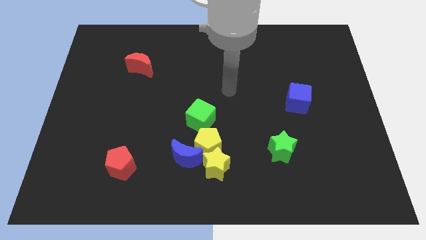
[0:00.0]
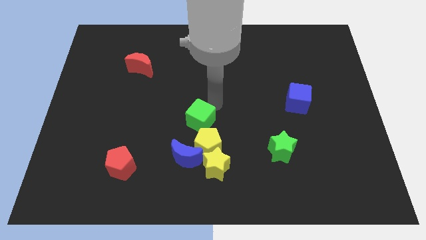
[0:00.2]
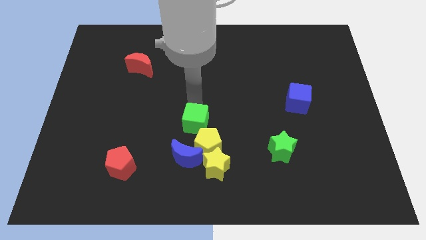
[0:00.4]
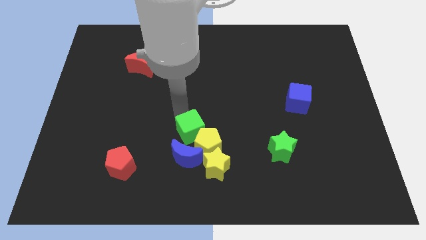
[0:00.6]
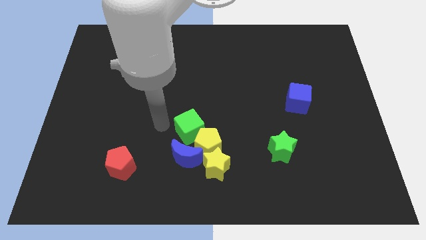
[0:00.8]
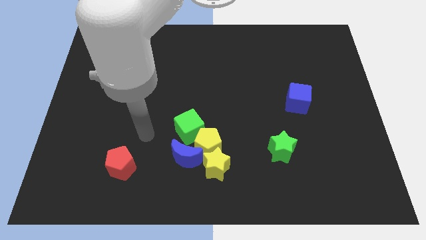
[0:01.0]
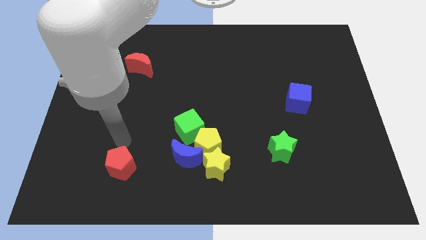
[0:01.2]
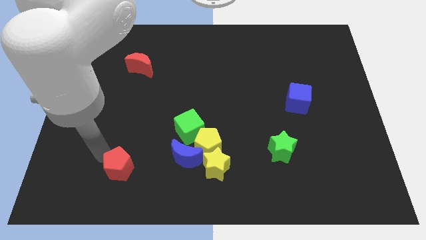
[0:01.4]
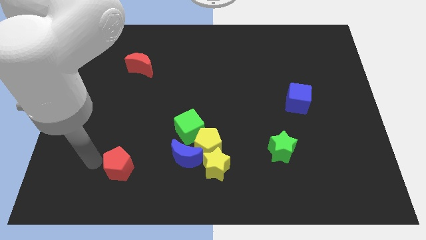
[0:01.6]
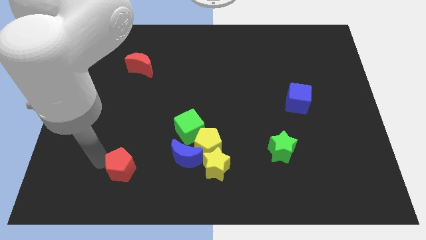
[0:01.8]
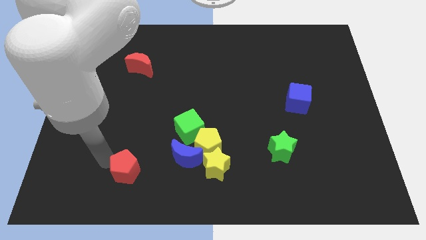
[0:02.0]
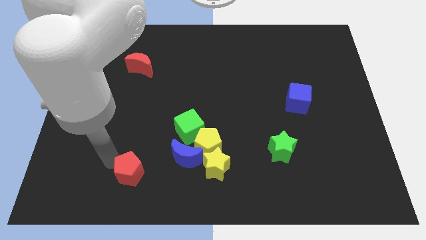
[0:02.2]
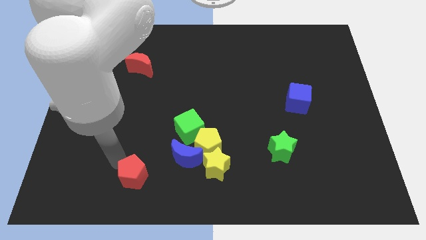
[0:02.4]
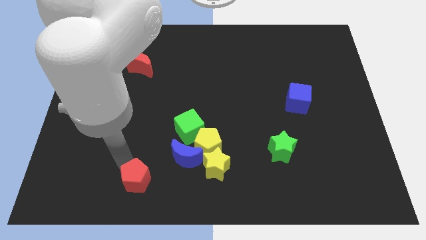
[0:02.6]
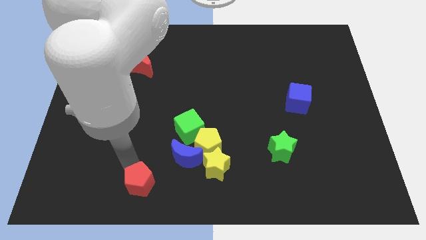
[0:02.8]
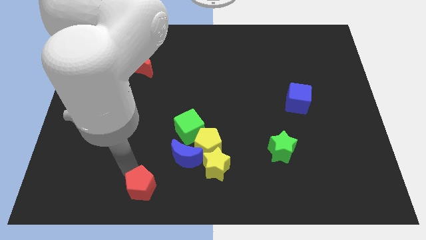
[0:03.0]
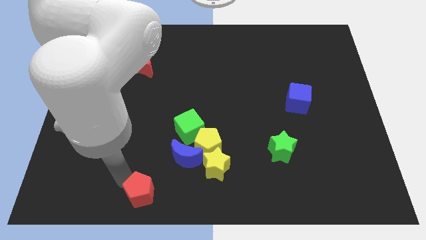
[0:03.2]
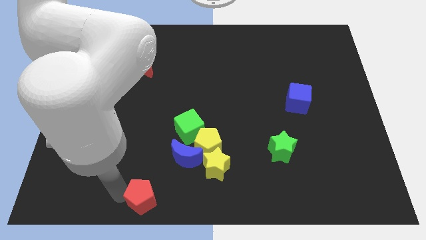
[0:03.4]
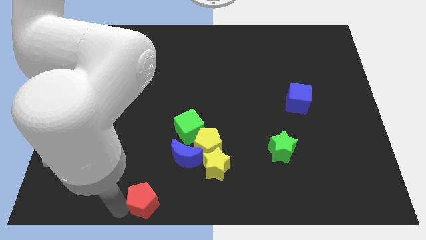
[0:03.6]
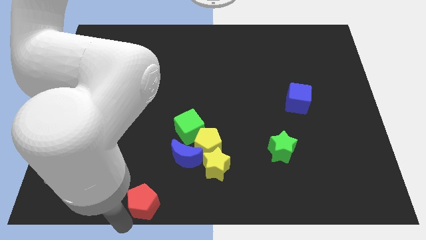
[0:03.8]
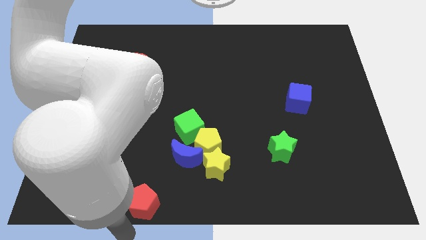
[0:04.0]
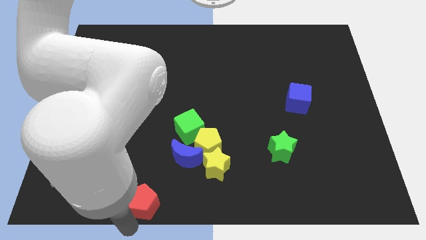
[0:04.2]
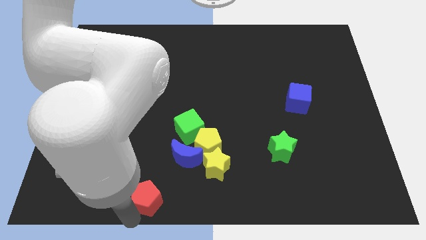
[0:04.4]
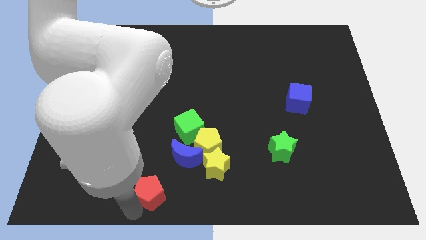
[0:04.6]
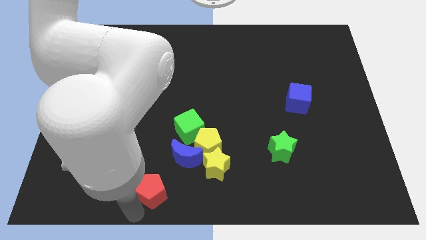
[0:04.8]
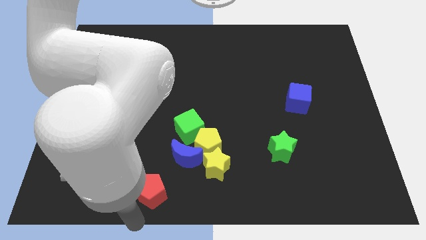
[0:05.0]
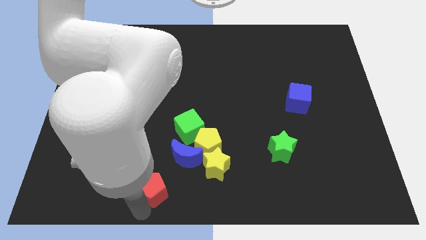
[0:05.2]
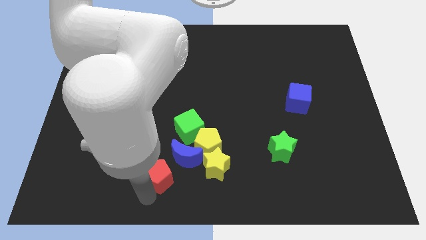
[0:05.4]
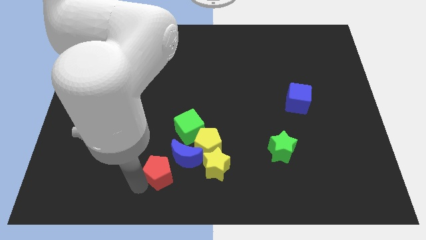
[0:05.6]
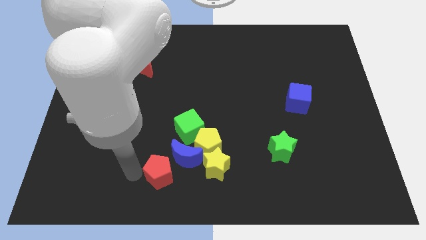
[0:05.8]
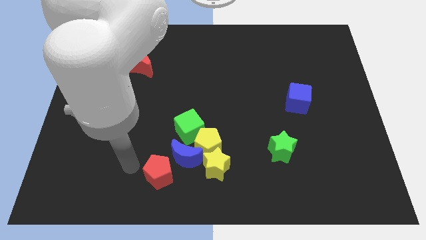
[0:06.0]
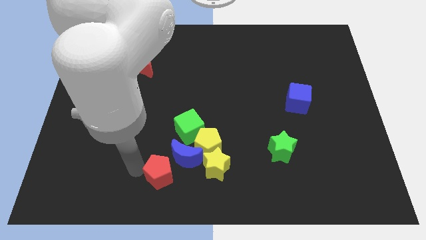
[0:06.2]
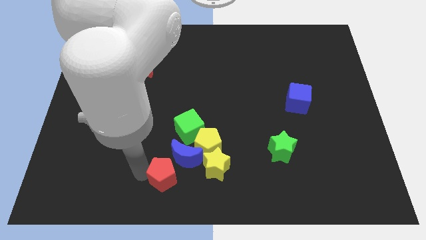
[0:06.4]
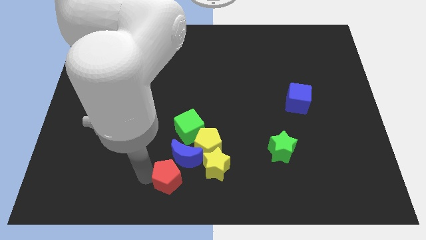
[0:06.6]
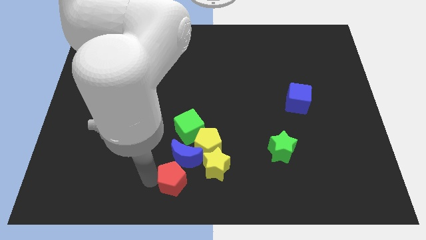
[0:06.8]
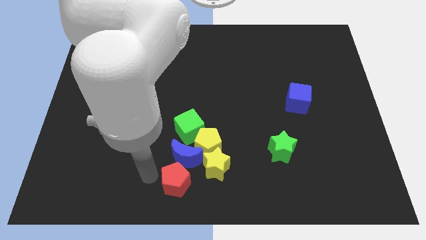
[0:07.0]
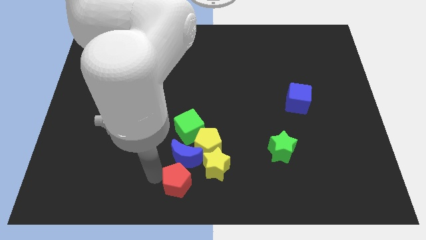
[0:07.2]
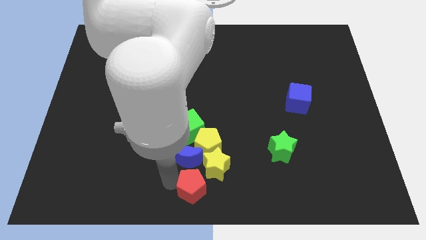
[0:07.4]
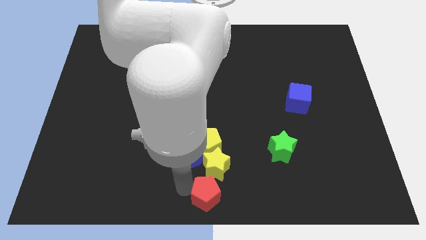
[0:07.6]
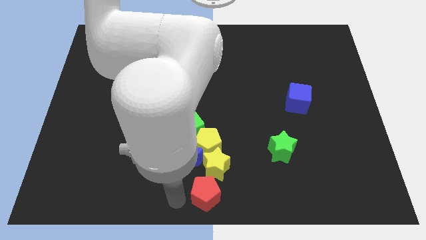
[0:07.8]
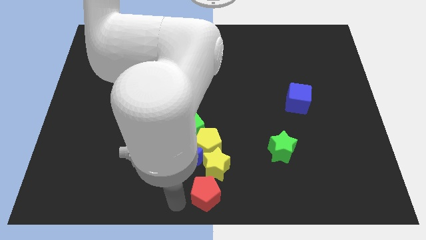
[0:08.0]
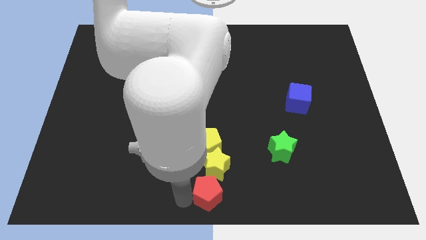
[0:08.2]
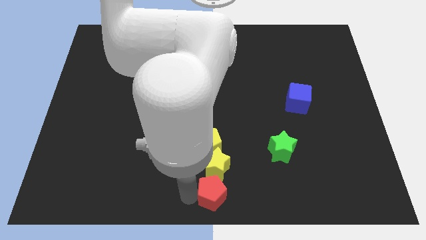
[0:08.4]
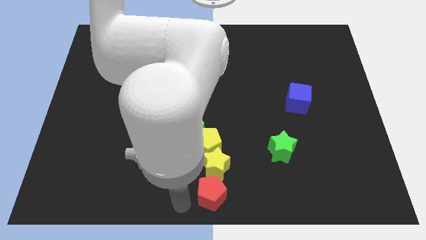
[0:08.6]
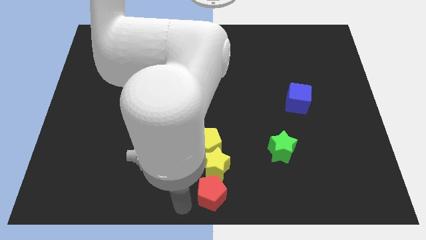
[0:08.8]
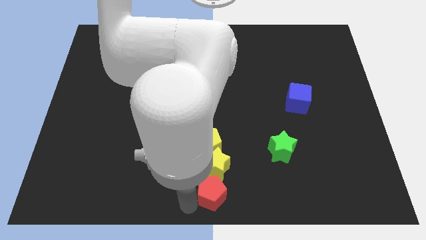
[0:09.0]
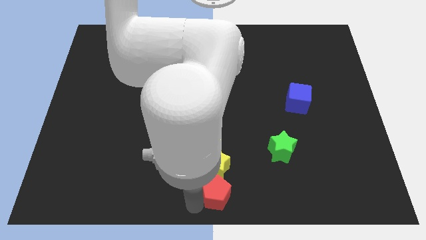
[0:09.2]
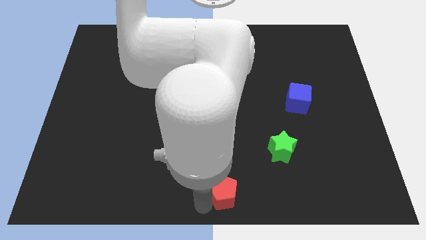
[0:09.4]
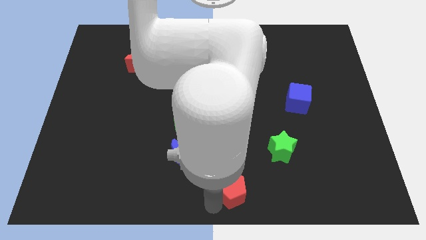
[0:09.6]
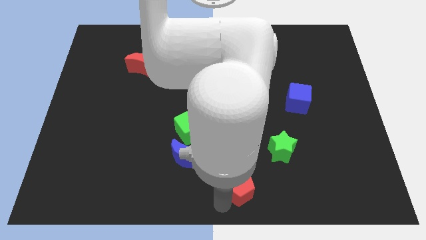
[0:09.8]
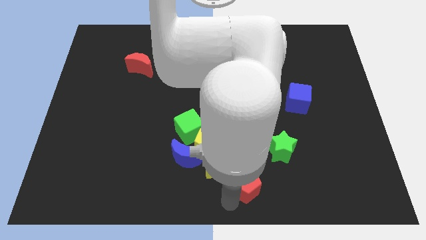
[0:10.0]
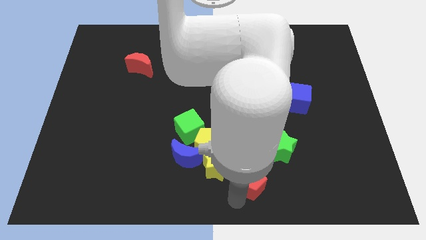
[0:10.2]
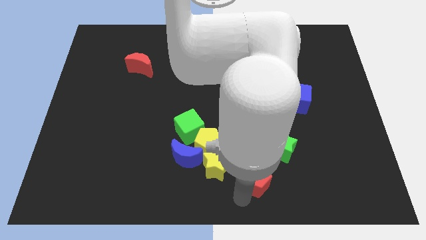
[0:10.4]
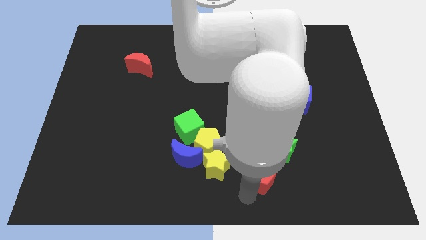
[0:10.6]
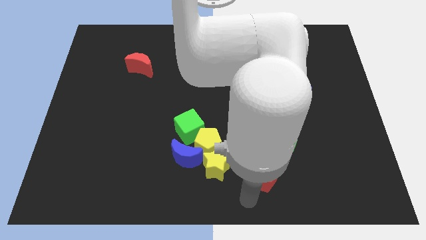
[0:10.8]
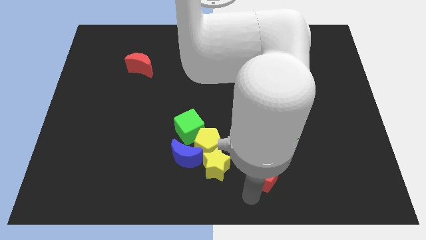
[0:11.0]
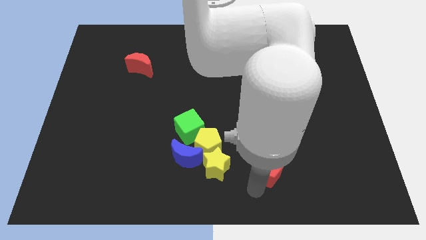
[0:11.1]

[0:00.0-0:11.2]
push the red pentagon to the green star

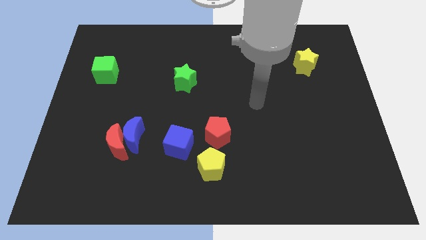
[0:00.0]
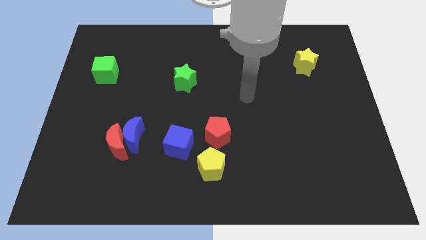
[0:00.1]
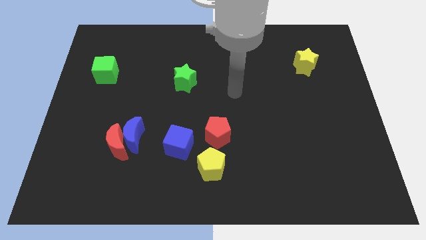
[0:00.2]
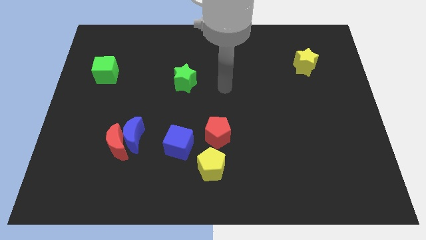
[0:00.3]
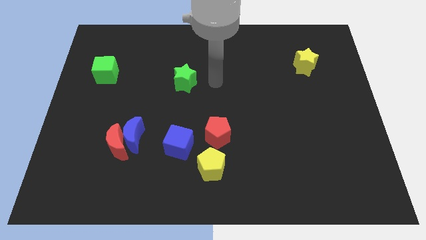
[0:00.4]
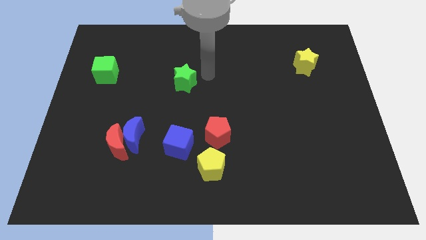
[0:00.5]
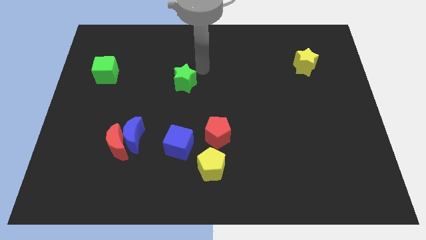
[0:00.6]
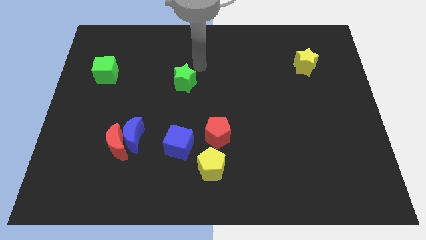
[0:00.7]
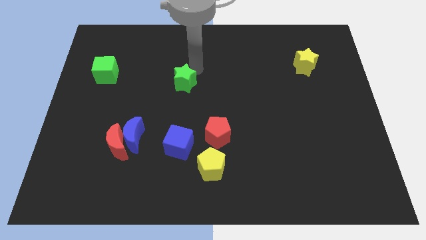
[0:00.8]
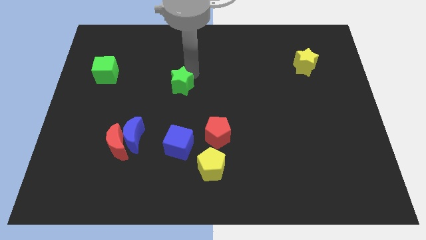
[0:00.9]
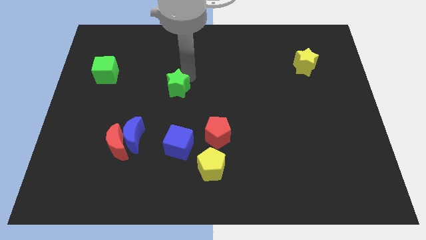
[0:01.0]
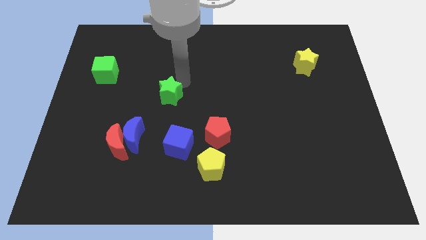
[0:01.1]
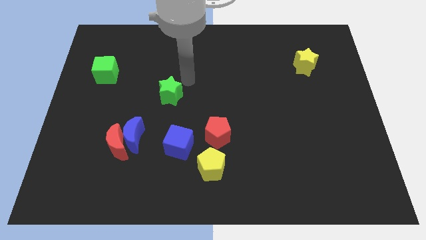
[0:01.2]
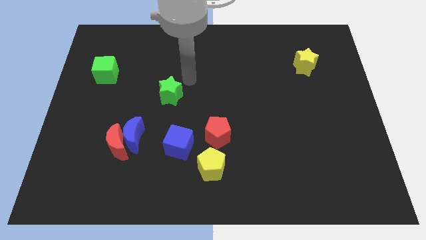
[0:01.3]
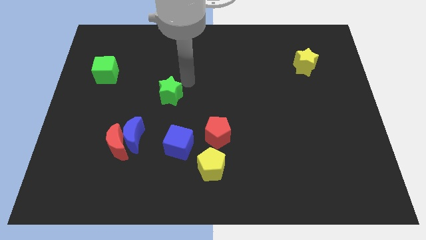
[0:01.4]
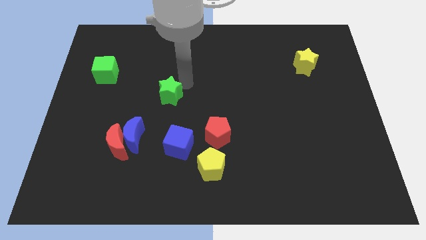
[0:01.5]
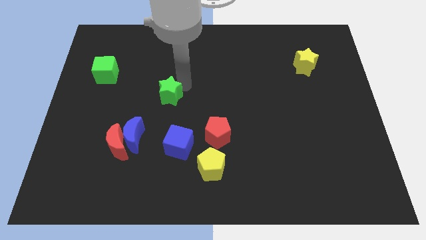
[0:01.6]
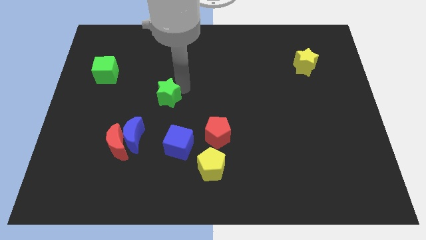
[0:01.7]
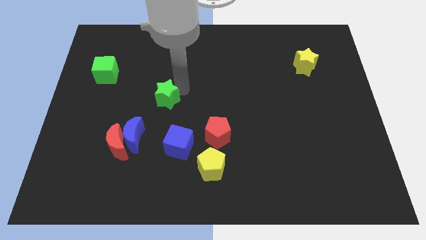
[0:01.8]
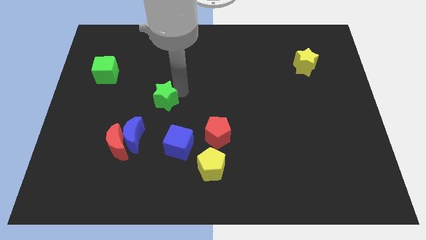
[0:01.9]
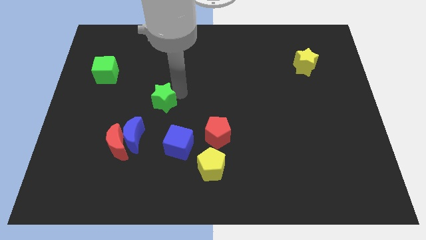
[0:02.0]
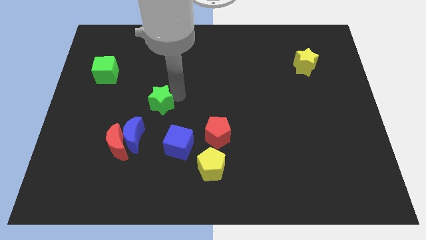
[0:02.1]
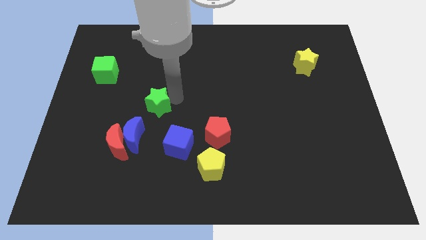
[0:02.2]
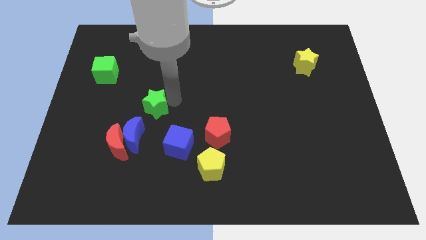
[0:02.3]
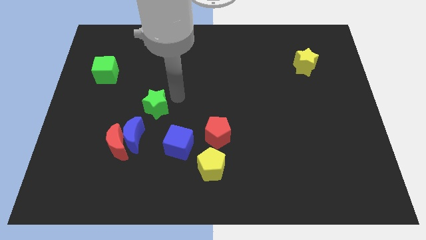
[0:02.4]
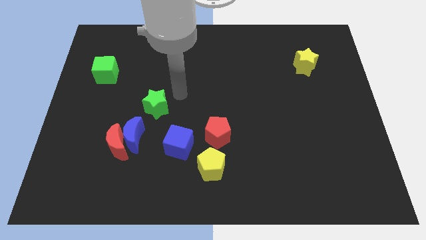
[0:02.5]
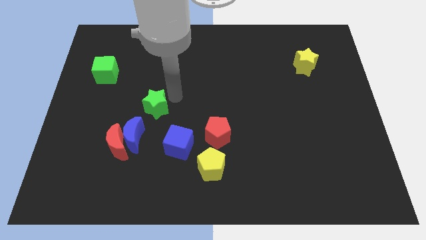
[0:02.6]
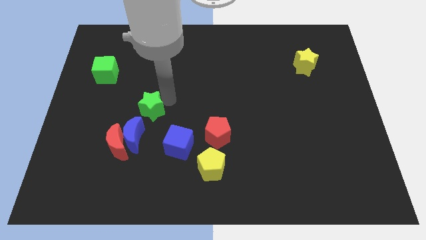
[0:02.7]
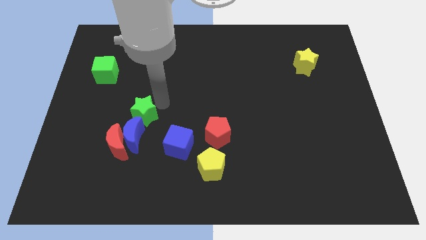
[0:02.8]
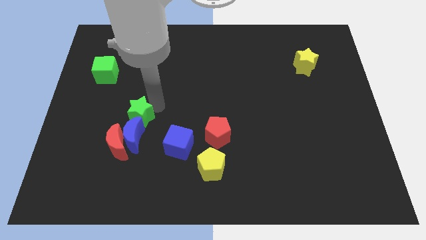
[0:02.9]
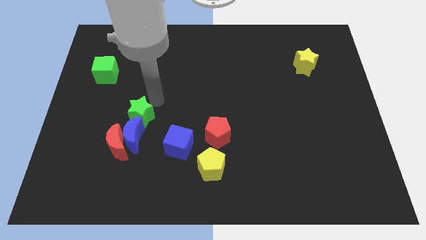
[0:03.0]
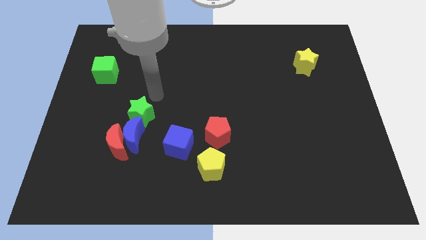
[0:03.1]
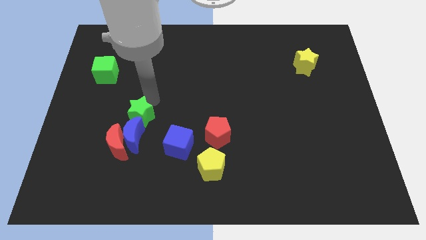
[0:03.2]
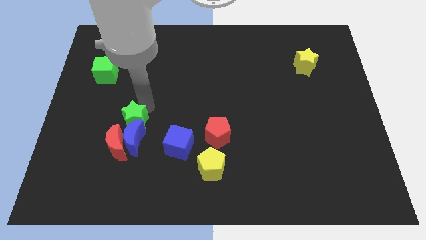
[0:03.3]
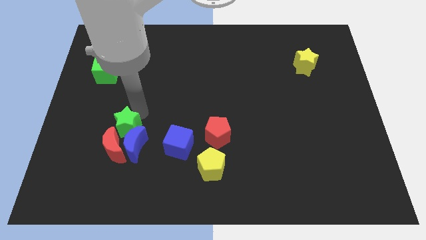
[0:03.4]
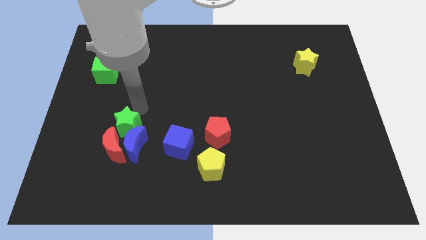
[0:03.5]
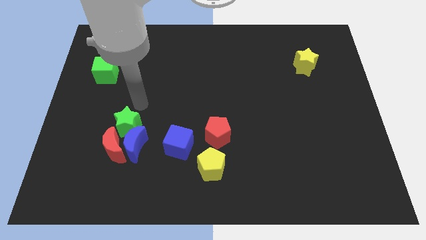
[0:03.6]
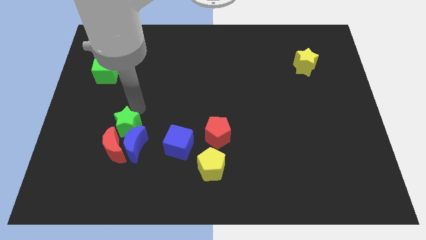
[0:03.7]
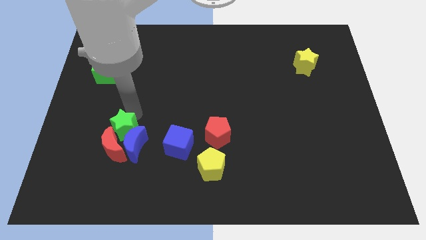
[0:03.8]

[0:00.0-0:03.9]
push the green star towards the red moon
